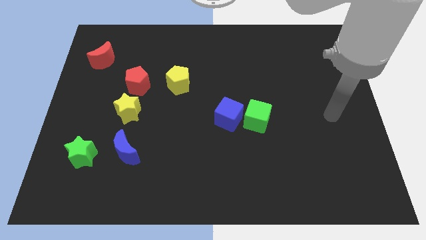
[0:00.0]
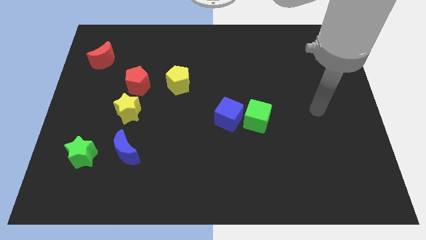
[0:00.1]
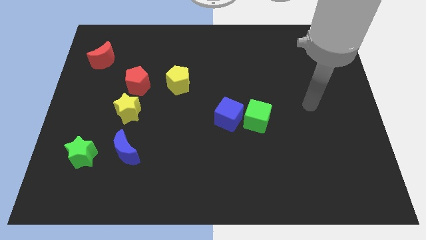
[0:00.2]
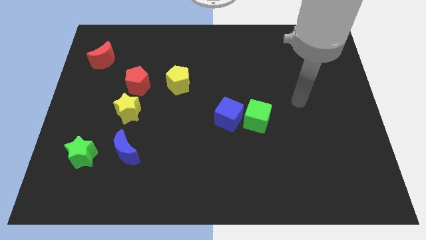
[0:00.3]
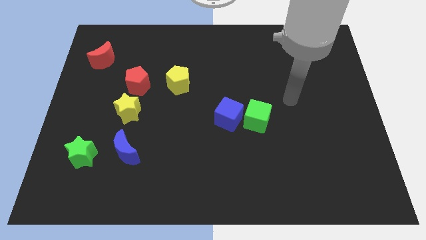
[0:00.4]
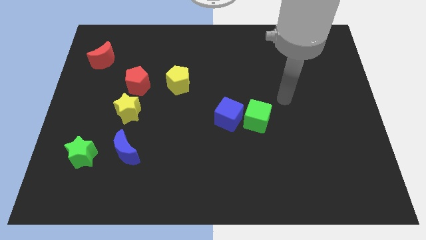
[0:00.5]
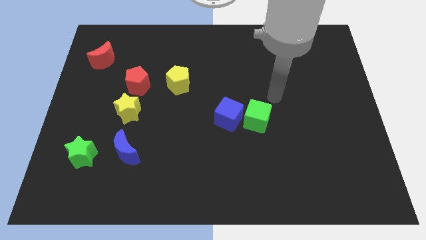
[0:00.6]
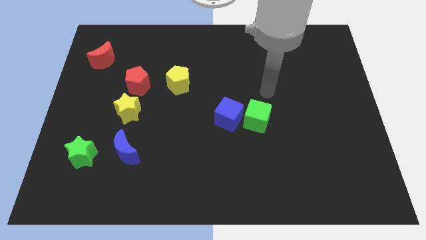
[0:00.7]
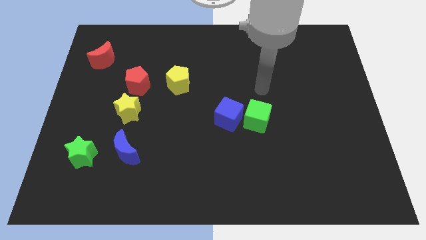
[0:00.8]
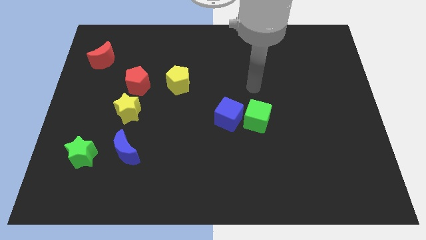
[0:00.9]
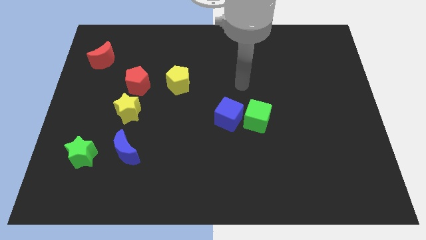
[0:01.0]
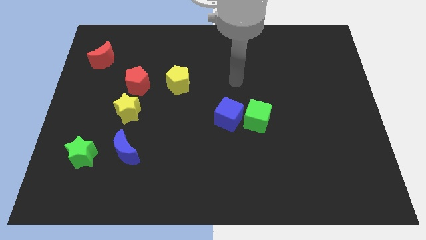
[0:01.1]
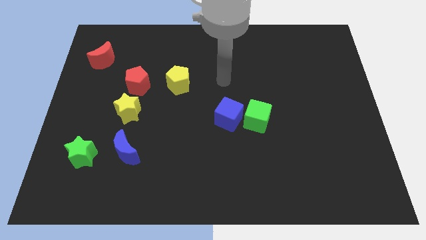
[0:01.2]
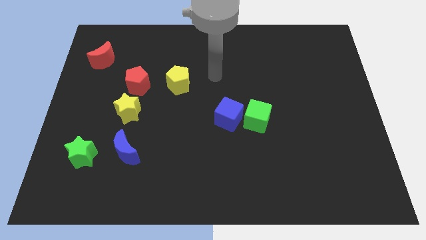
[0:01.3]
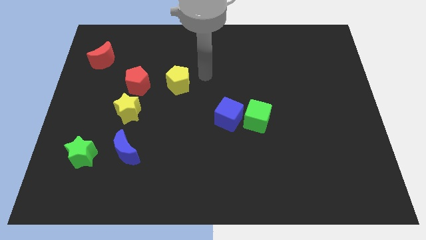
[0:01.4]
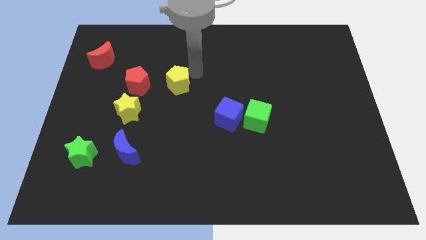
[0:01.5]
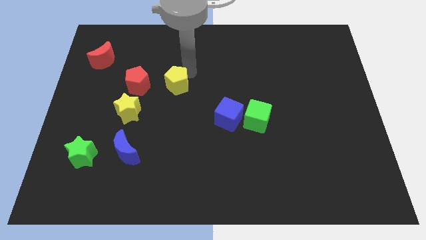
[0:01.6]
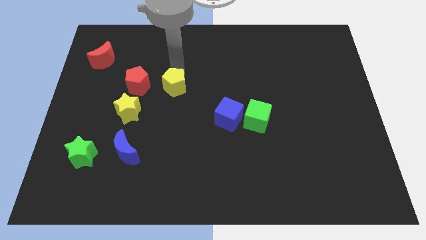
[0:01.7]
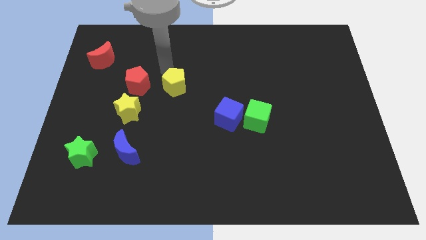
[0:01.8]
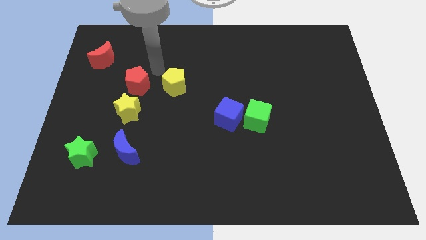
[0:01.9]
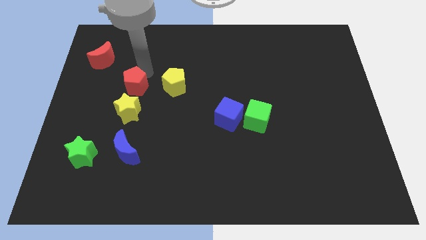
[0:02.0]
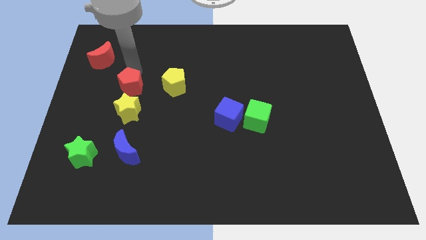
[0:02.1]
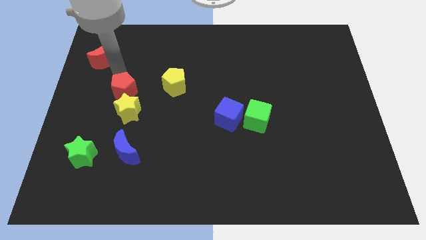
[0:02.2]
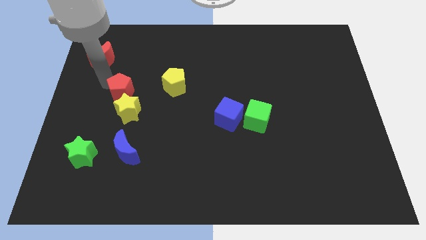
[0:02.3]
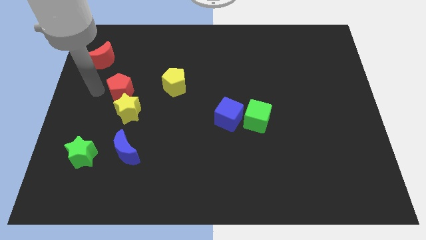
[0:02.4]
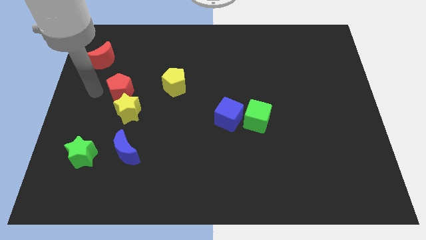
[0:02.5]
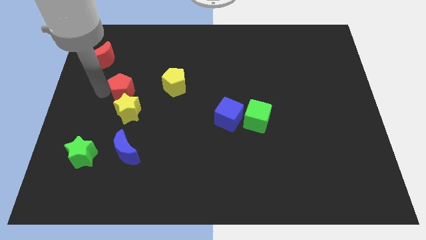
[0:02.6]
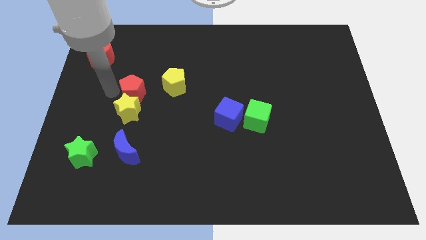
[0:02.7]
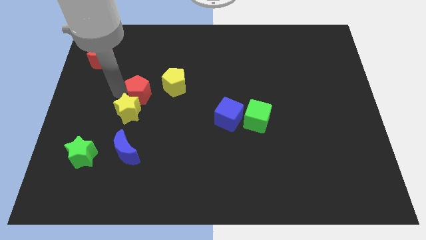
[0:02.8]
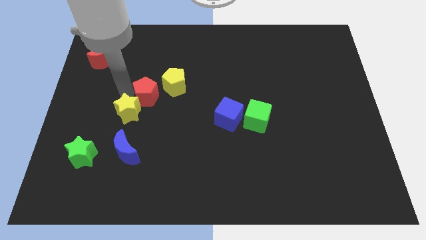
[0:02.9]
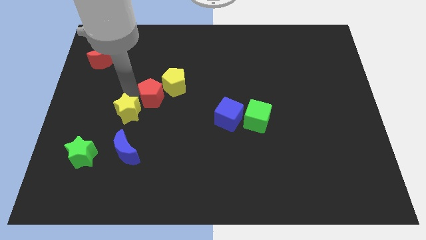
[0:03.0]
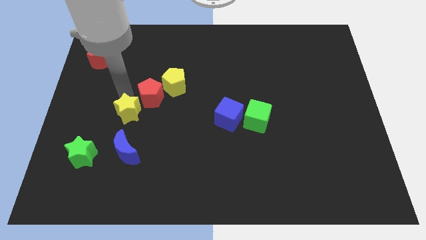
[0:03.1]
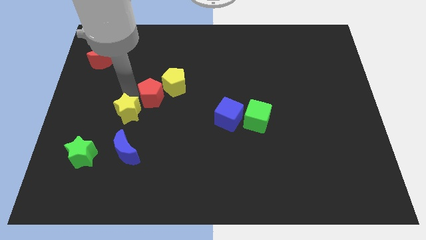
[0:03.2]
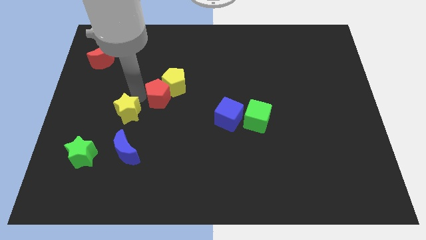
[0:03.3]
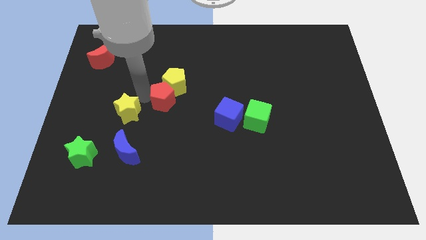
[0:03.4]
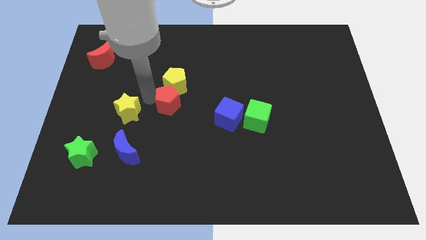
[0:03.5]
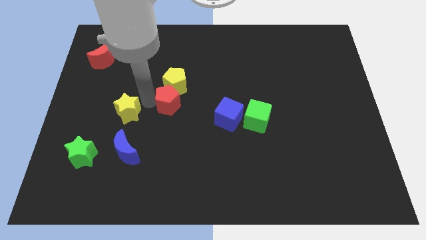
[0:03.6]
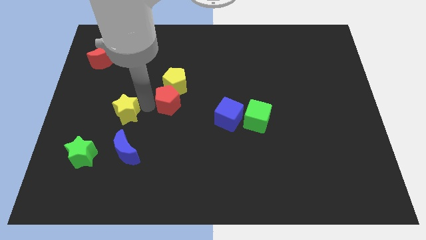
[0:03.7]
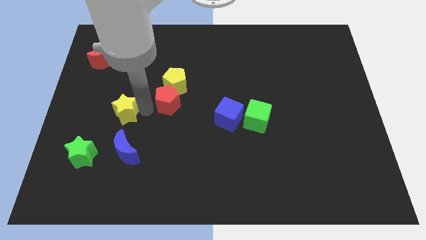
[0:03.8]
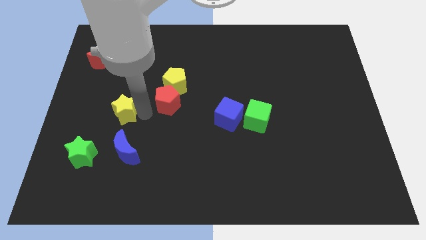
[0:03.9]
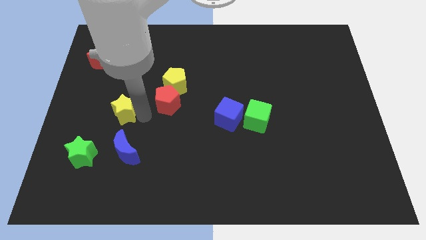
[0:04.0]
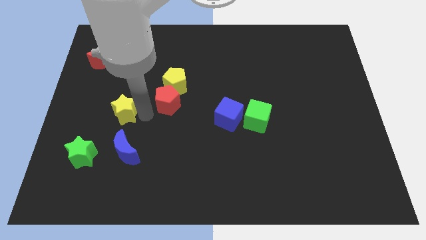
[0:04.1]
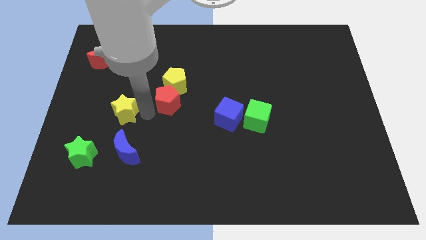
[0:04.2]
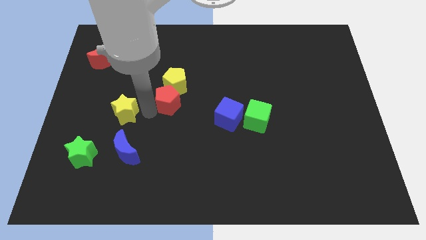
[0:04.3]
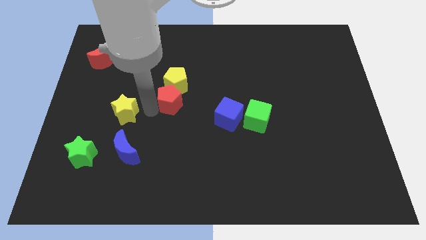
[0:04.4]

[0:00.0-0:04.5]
slightly push the red pentagon to the right

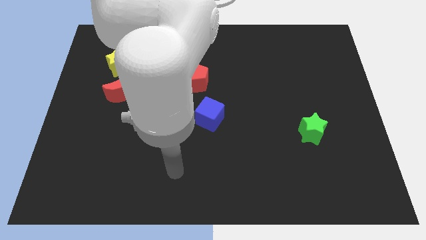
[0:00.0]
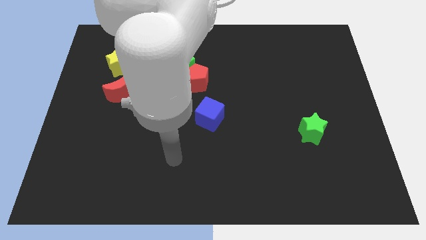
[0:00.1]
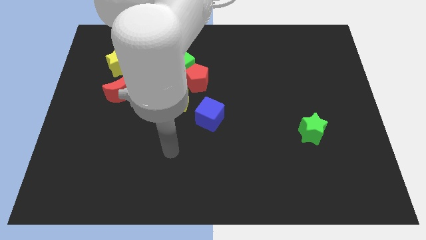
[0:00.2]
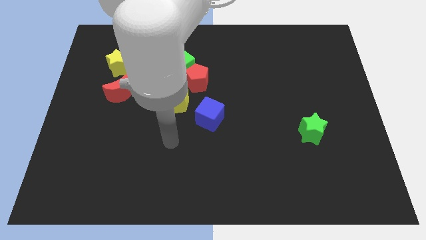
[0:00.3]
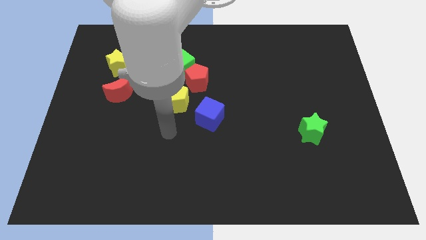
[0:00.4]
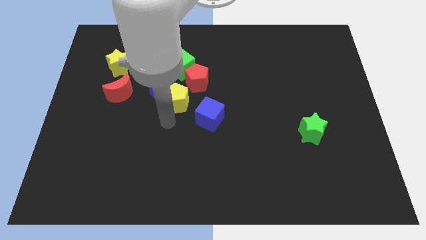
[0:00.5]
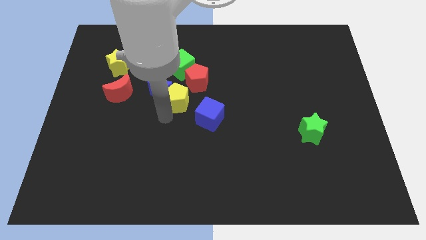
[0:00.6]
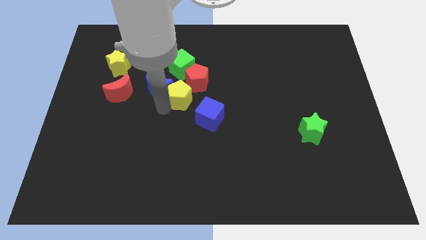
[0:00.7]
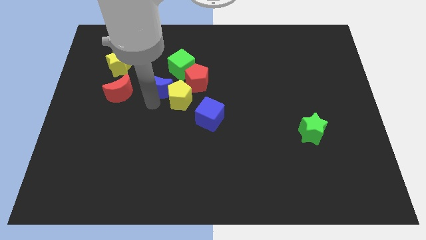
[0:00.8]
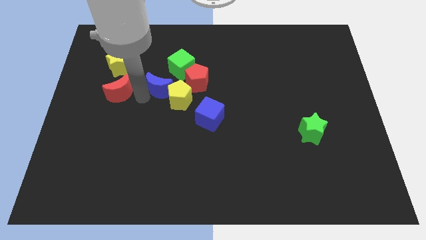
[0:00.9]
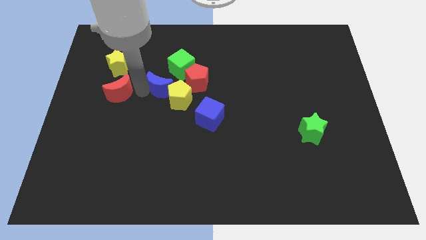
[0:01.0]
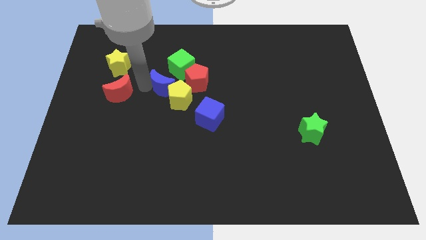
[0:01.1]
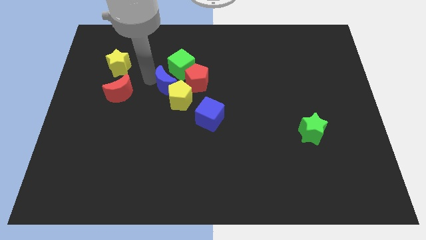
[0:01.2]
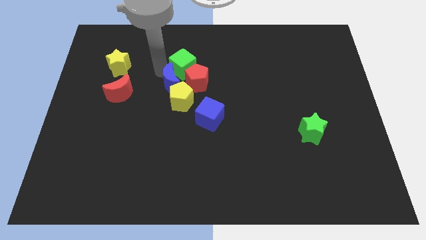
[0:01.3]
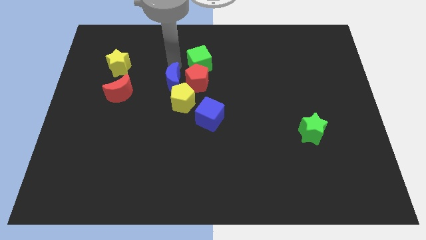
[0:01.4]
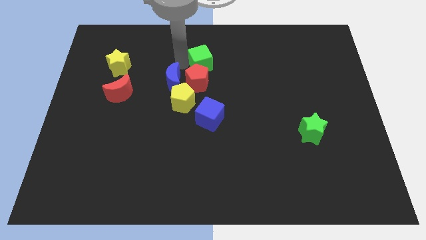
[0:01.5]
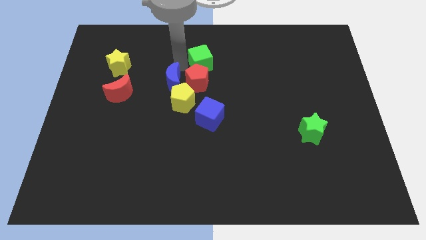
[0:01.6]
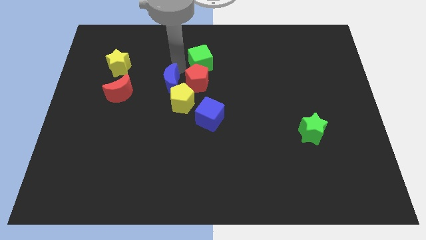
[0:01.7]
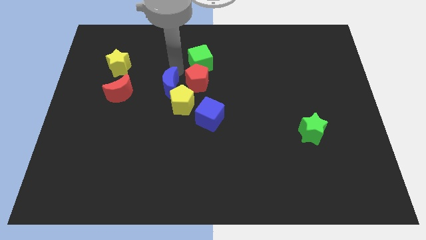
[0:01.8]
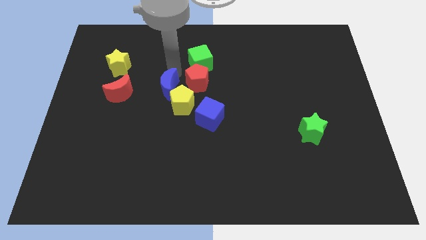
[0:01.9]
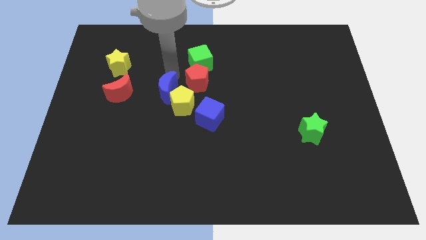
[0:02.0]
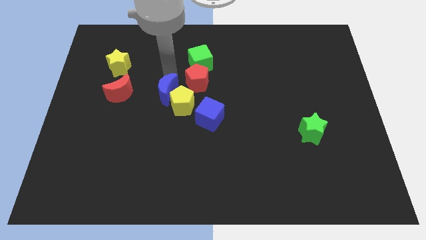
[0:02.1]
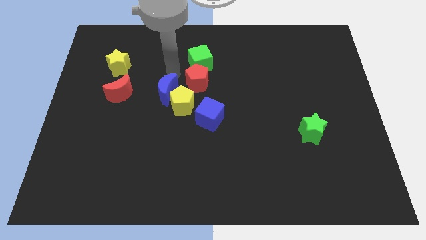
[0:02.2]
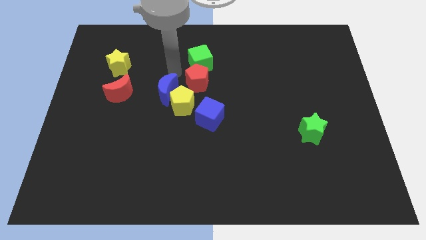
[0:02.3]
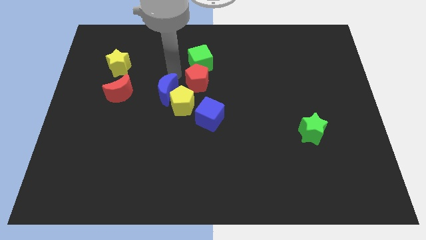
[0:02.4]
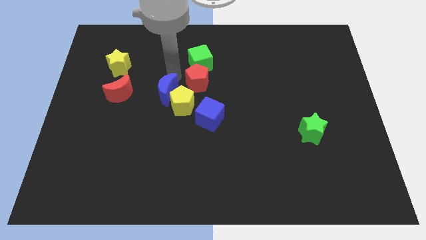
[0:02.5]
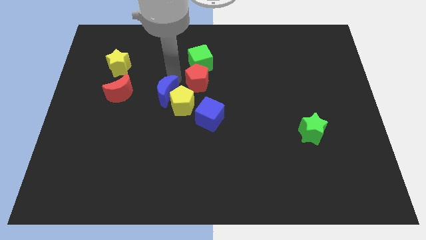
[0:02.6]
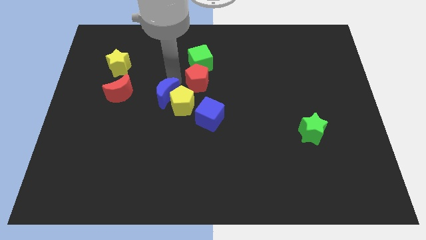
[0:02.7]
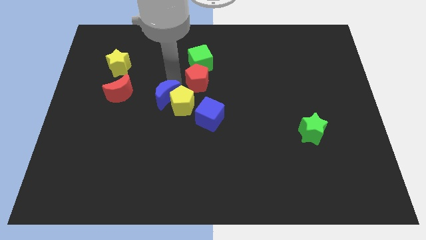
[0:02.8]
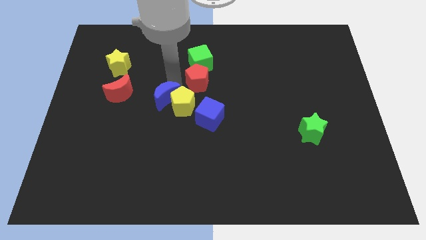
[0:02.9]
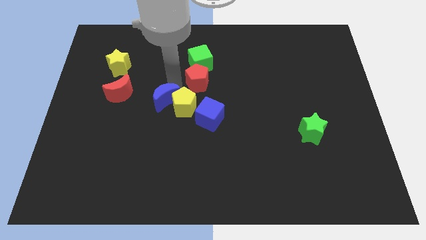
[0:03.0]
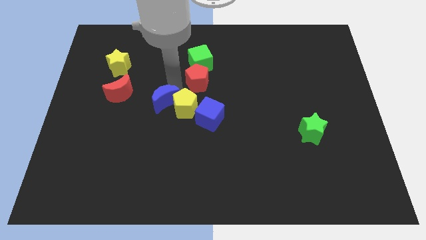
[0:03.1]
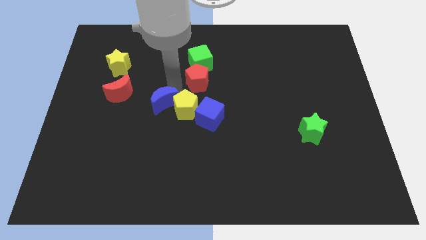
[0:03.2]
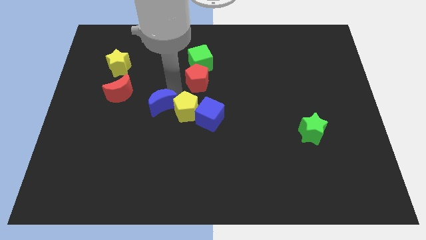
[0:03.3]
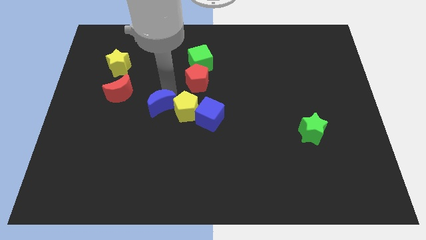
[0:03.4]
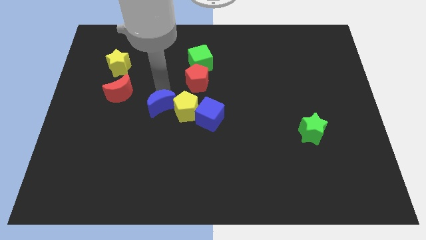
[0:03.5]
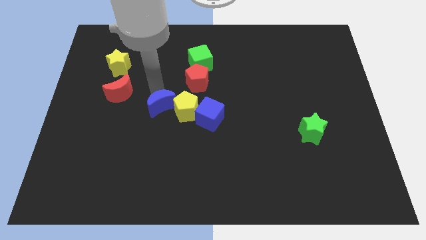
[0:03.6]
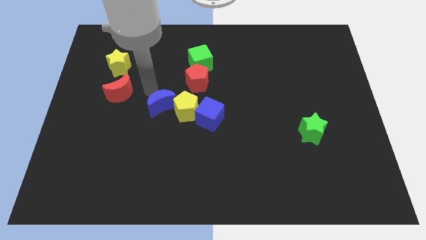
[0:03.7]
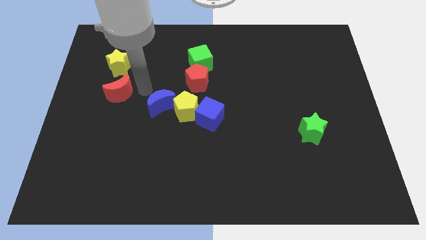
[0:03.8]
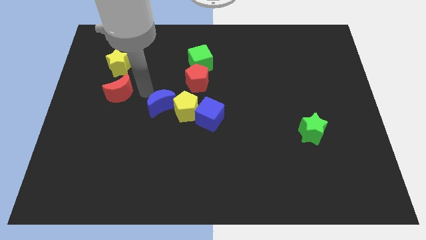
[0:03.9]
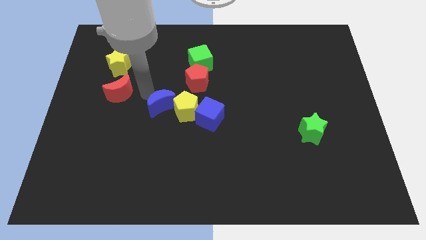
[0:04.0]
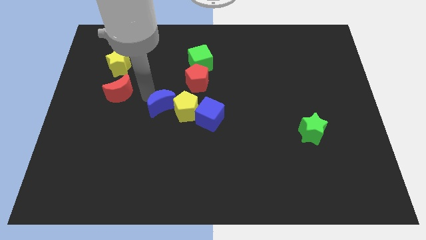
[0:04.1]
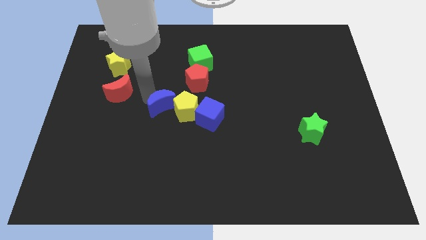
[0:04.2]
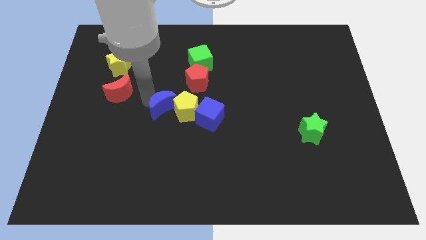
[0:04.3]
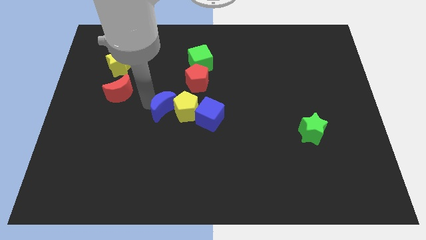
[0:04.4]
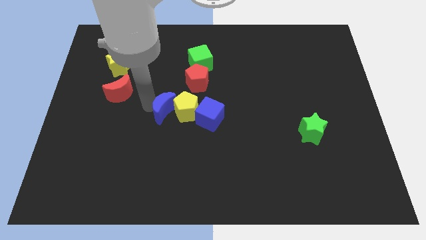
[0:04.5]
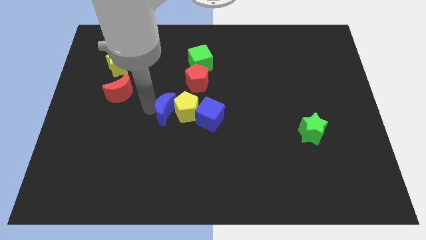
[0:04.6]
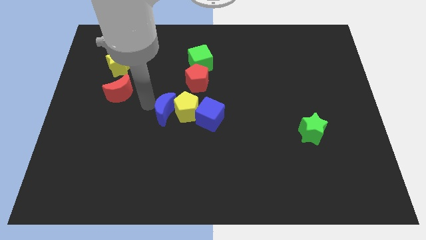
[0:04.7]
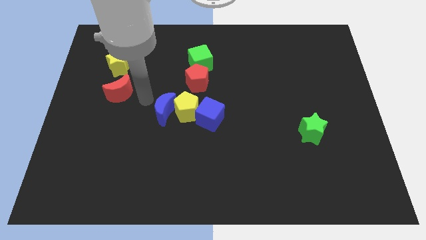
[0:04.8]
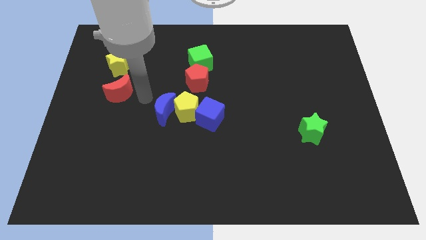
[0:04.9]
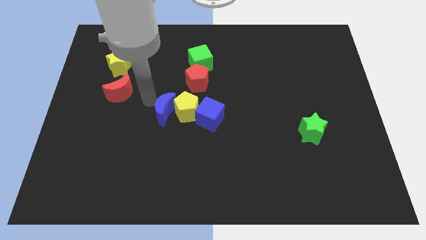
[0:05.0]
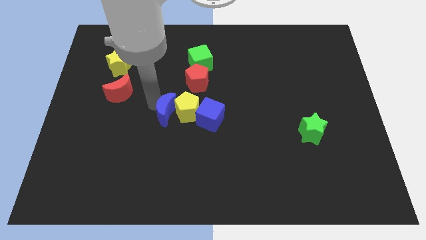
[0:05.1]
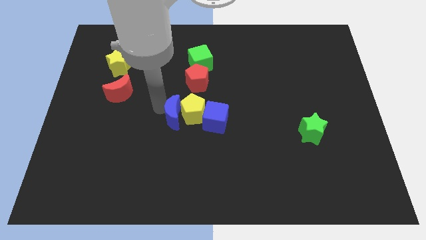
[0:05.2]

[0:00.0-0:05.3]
move the blue moon diagonally down and right slightly
